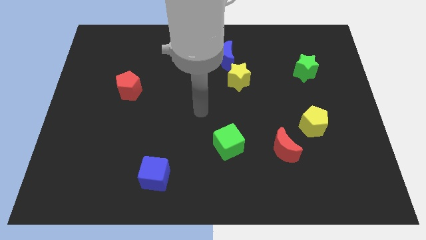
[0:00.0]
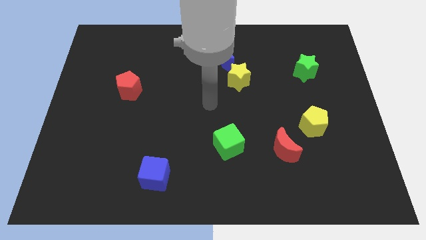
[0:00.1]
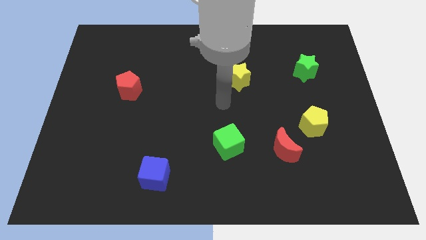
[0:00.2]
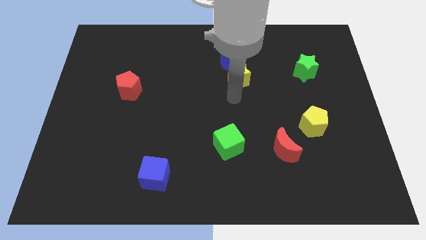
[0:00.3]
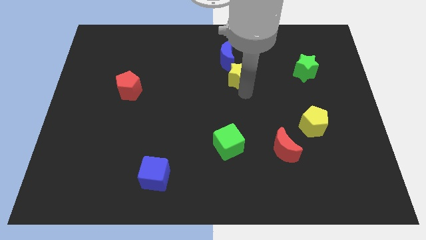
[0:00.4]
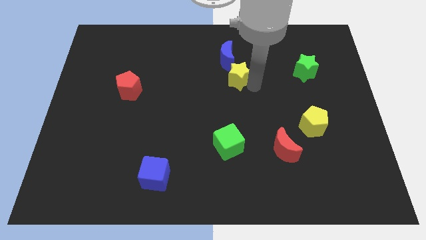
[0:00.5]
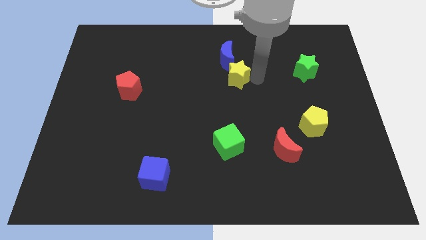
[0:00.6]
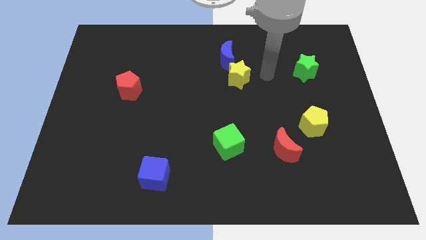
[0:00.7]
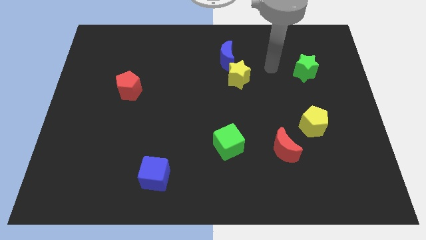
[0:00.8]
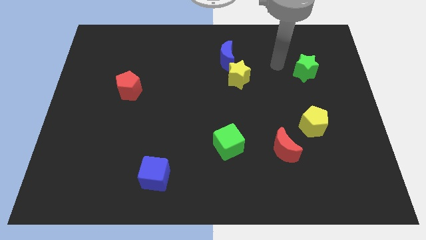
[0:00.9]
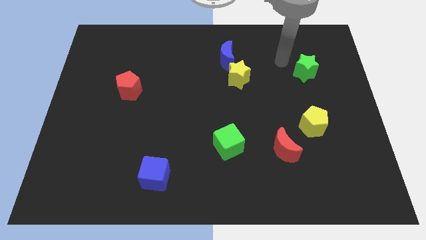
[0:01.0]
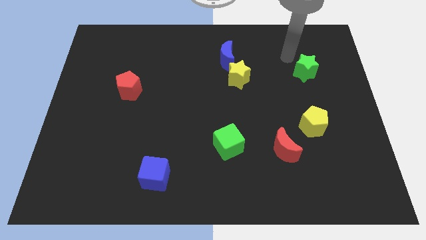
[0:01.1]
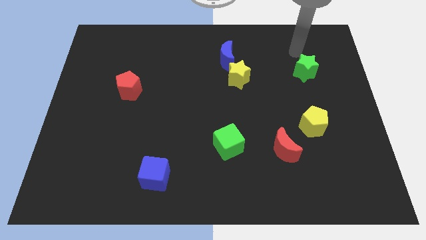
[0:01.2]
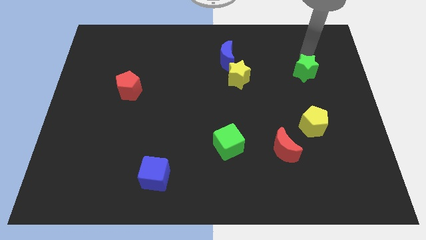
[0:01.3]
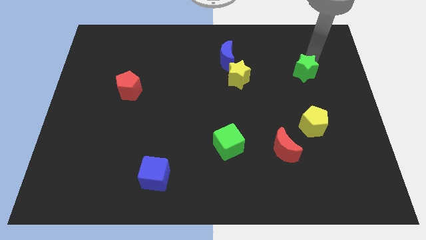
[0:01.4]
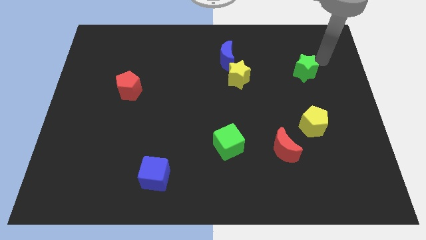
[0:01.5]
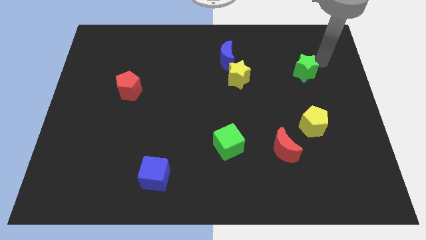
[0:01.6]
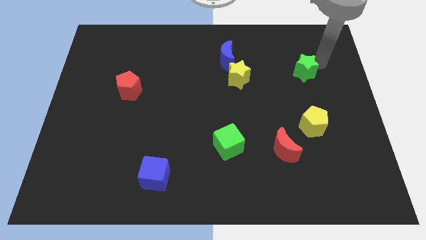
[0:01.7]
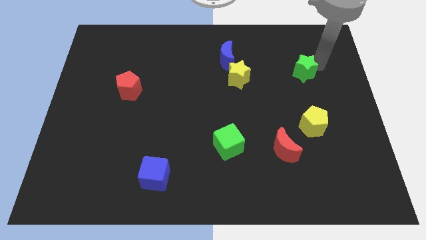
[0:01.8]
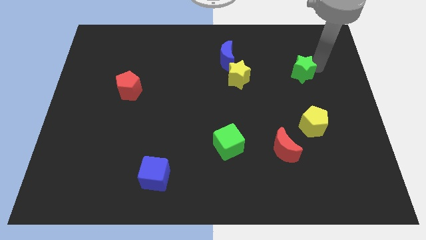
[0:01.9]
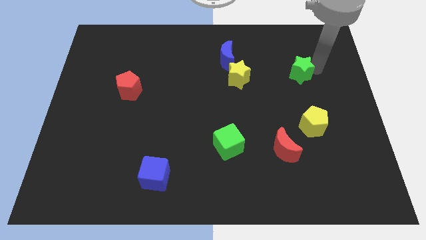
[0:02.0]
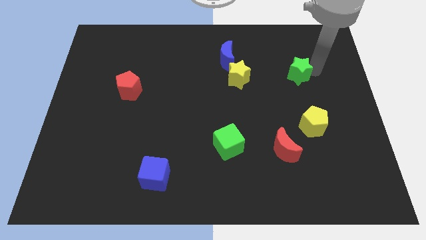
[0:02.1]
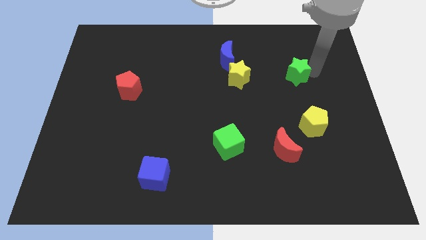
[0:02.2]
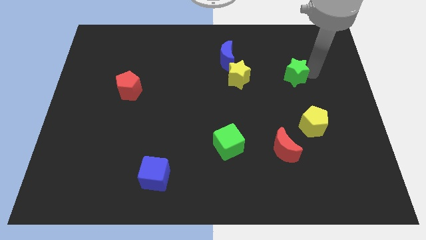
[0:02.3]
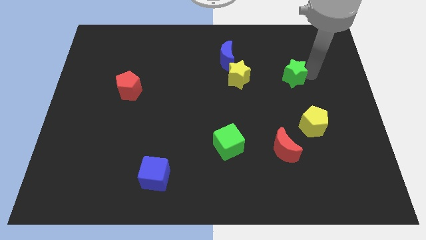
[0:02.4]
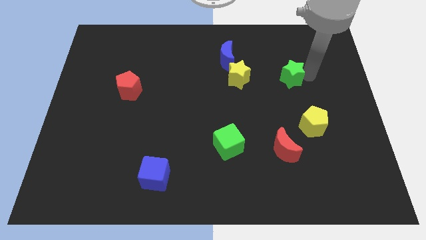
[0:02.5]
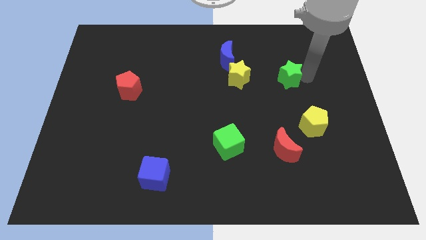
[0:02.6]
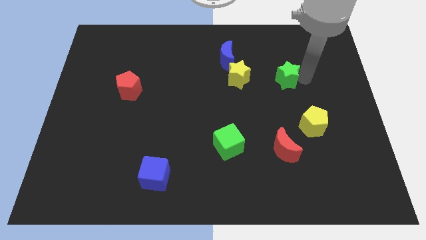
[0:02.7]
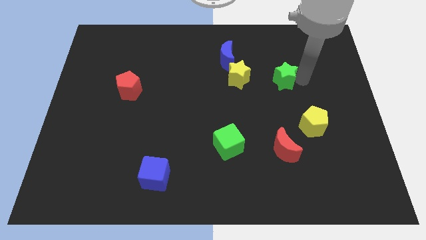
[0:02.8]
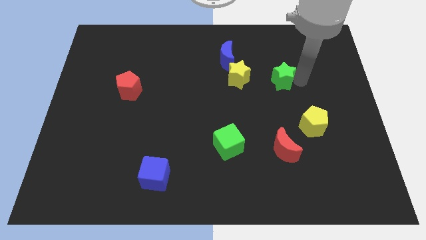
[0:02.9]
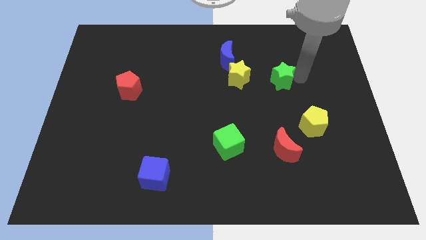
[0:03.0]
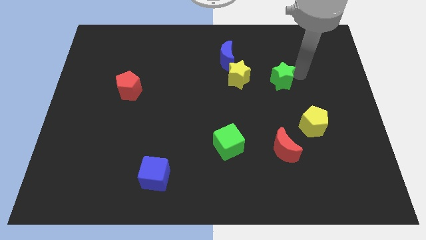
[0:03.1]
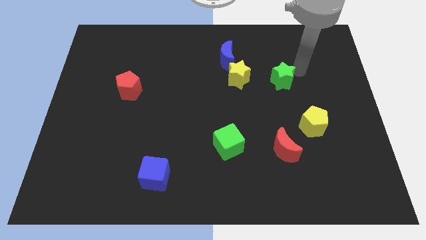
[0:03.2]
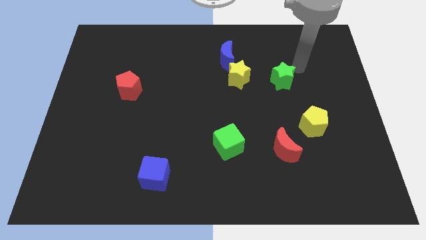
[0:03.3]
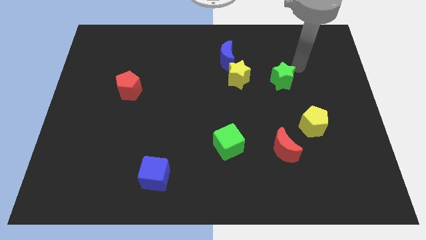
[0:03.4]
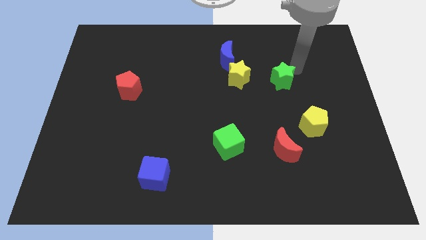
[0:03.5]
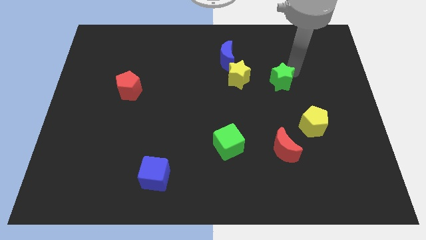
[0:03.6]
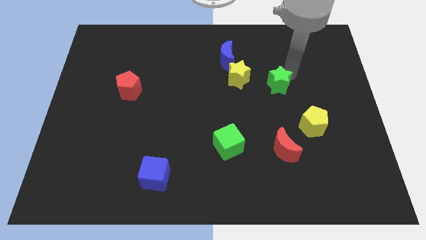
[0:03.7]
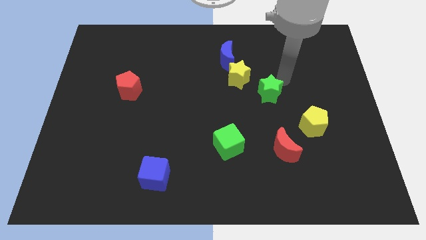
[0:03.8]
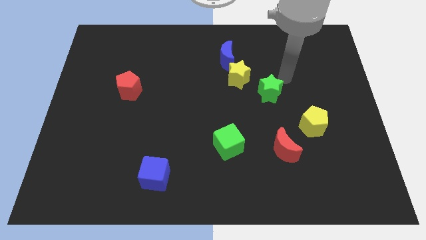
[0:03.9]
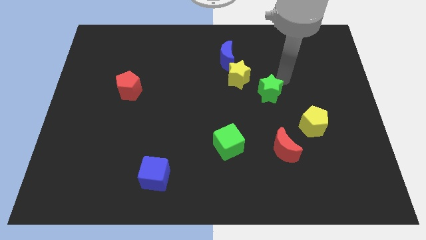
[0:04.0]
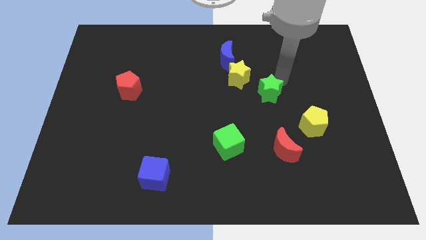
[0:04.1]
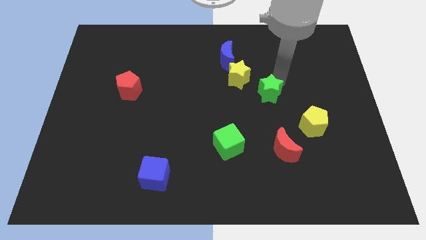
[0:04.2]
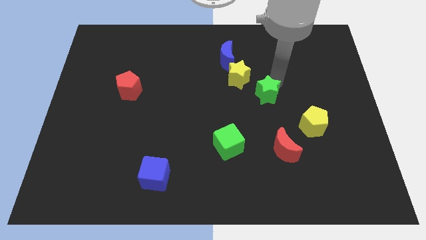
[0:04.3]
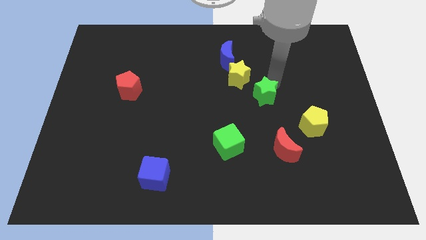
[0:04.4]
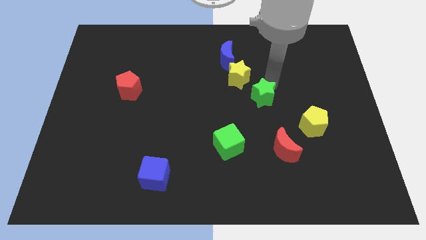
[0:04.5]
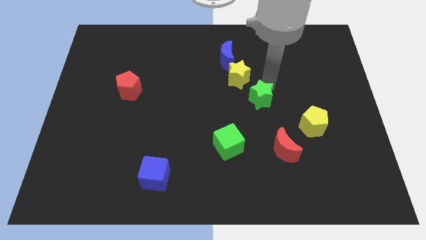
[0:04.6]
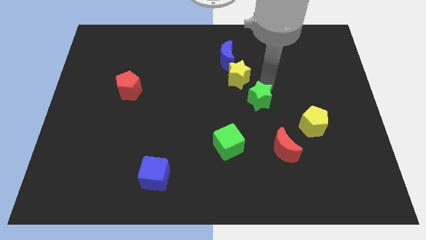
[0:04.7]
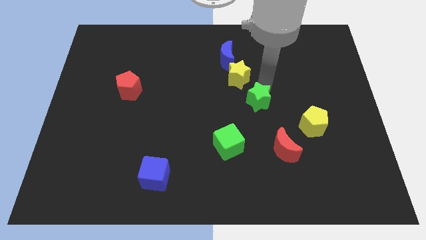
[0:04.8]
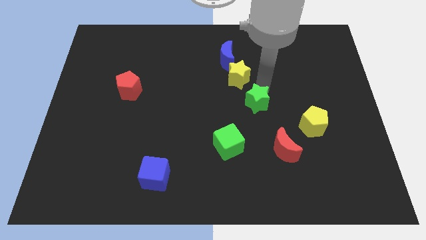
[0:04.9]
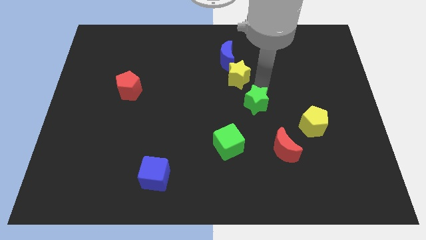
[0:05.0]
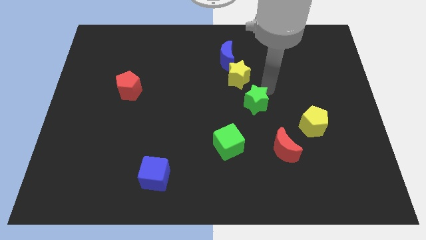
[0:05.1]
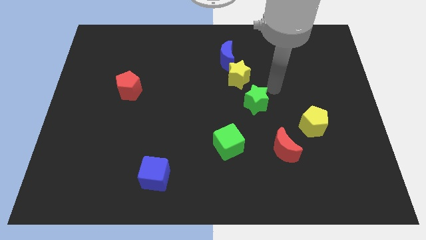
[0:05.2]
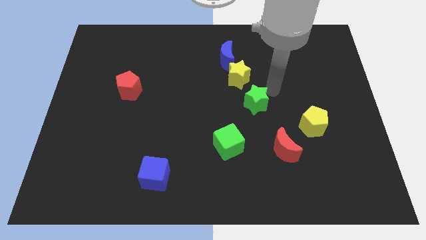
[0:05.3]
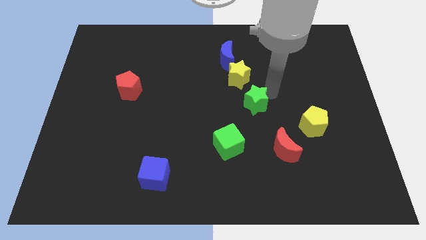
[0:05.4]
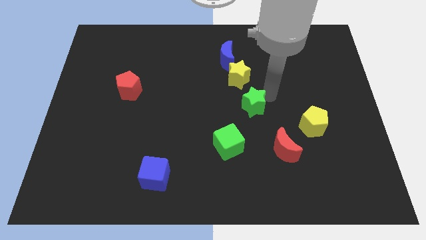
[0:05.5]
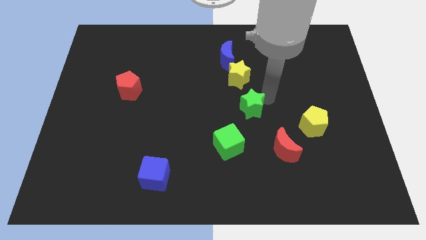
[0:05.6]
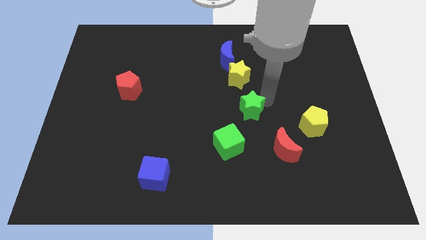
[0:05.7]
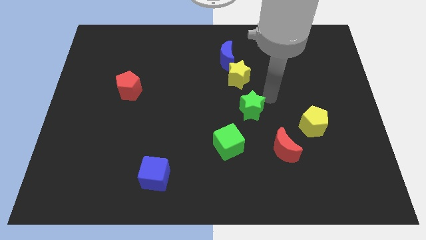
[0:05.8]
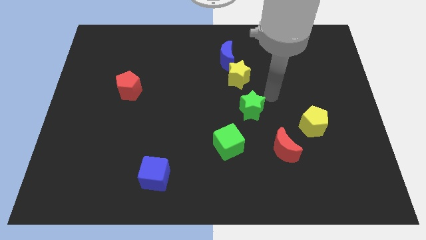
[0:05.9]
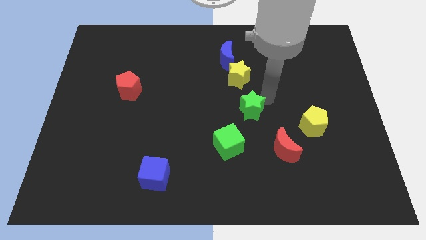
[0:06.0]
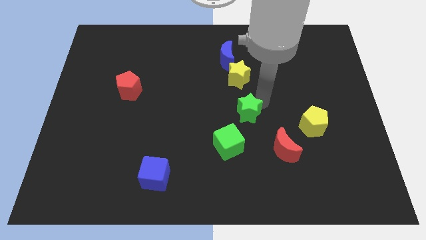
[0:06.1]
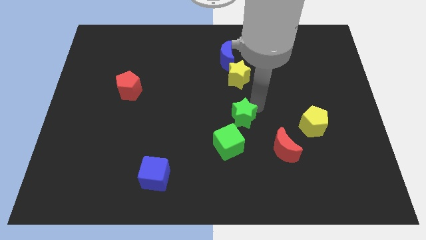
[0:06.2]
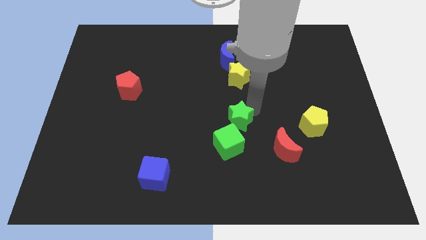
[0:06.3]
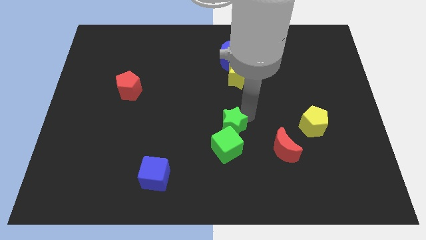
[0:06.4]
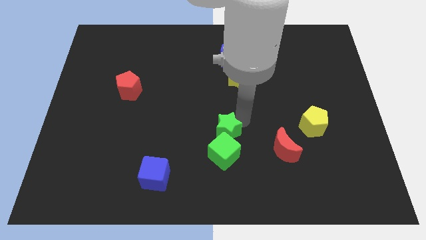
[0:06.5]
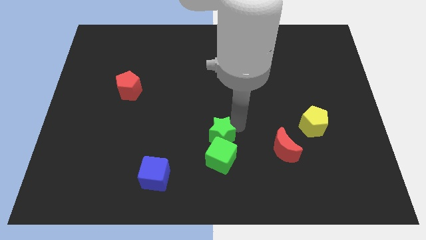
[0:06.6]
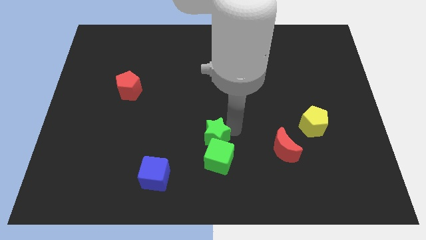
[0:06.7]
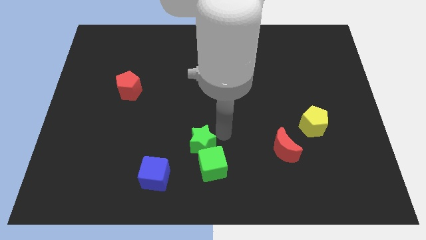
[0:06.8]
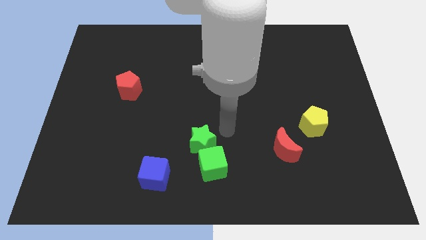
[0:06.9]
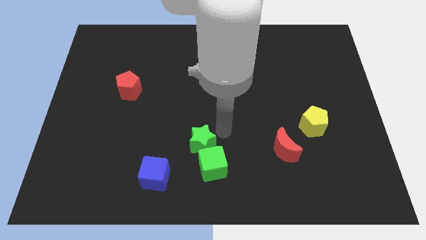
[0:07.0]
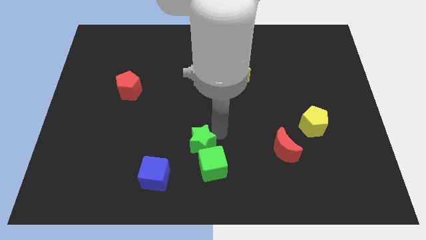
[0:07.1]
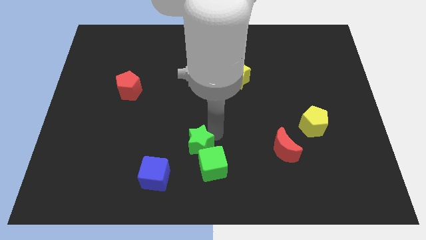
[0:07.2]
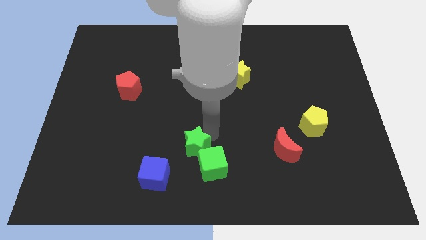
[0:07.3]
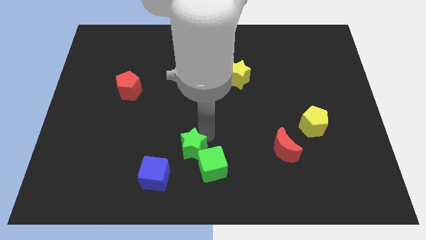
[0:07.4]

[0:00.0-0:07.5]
put the green star left of the green cube
